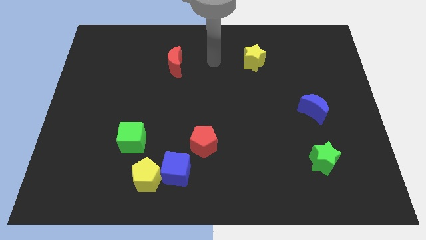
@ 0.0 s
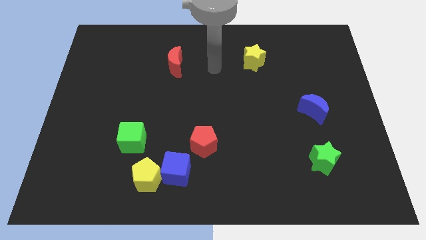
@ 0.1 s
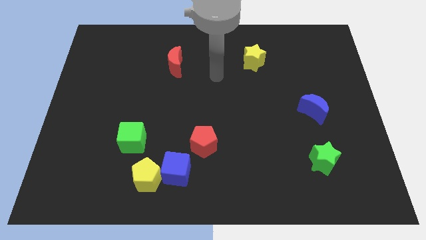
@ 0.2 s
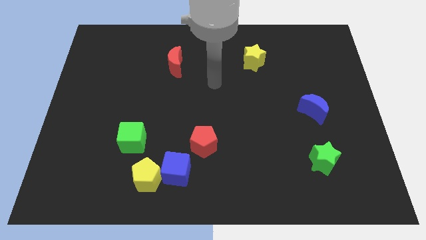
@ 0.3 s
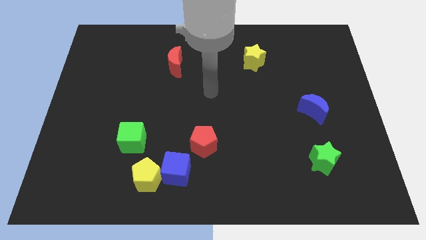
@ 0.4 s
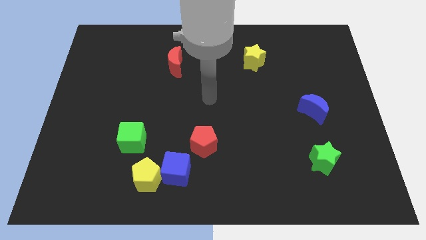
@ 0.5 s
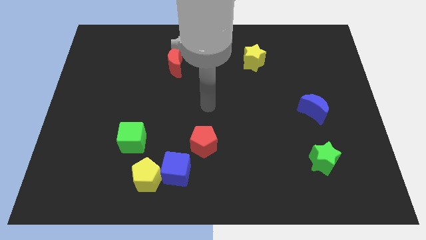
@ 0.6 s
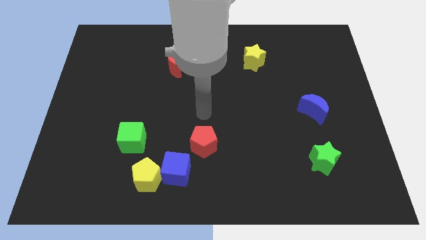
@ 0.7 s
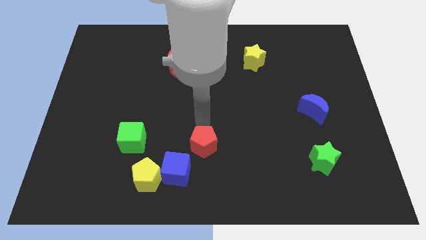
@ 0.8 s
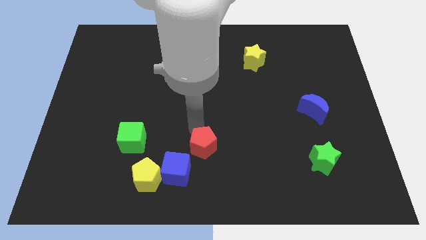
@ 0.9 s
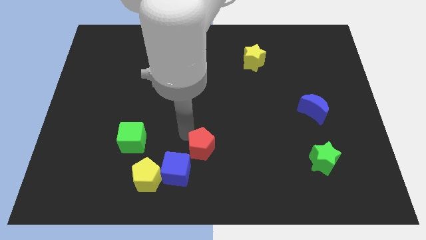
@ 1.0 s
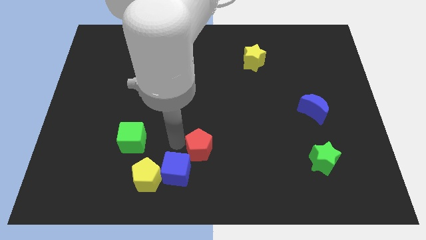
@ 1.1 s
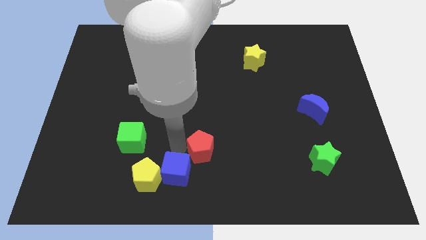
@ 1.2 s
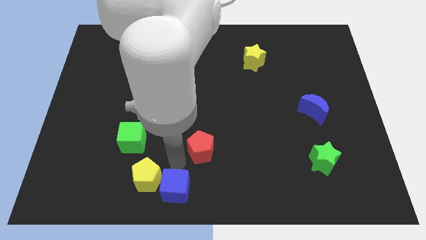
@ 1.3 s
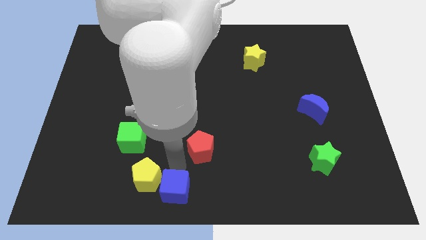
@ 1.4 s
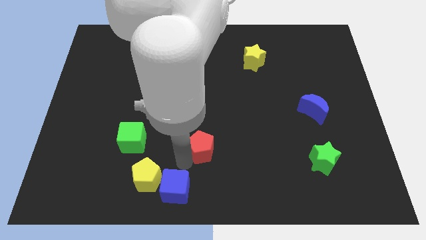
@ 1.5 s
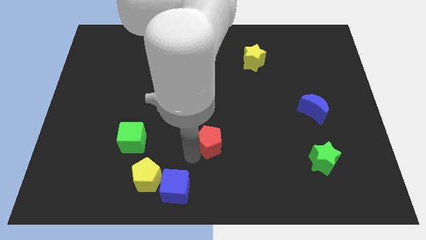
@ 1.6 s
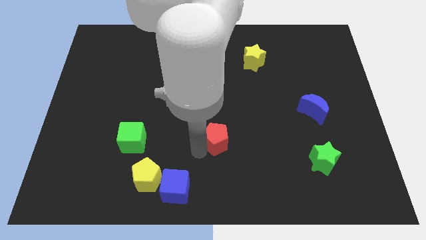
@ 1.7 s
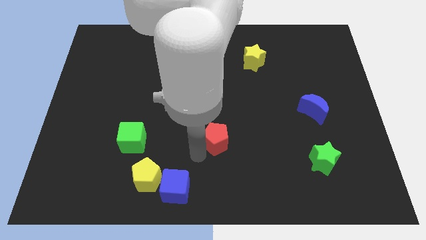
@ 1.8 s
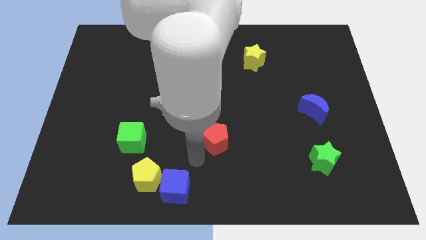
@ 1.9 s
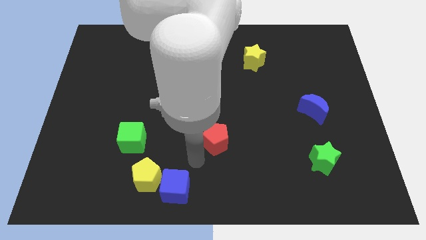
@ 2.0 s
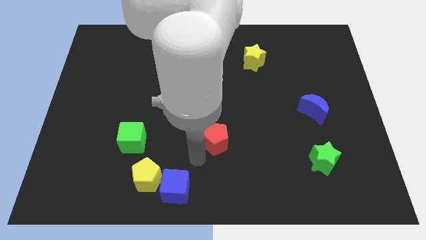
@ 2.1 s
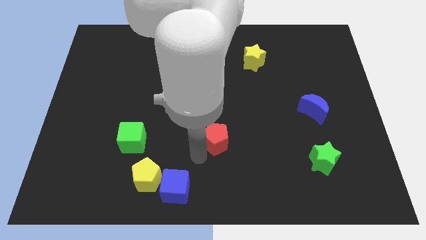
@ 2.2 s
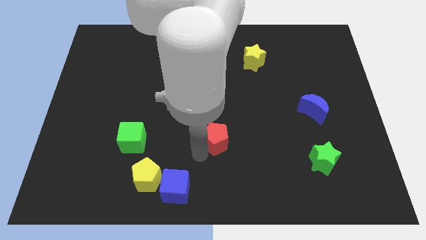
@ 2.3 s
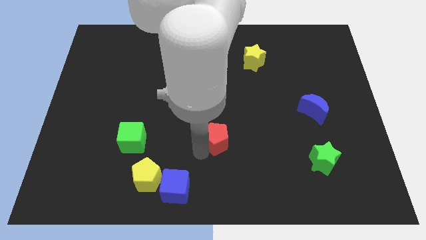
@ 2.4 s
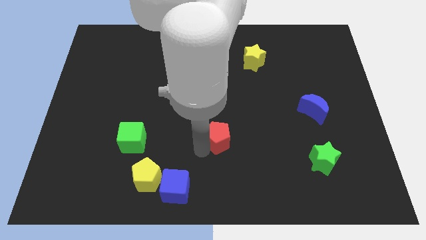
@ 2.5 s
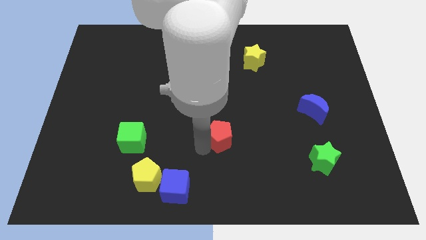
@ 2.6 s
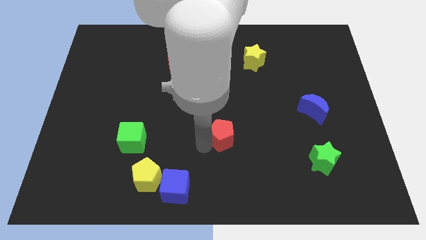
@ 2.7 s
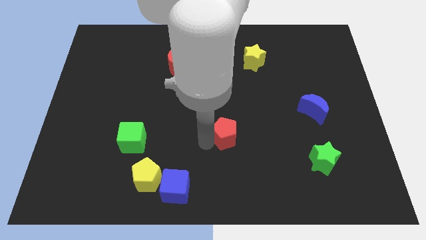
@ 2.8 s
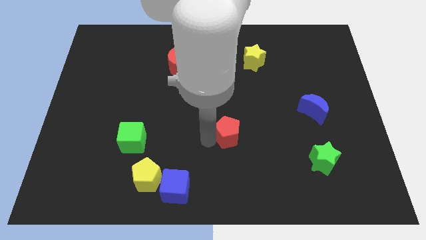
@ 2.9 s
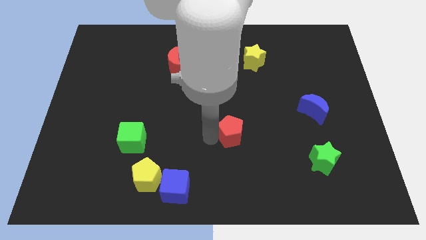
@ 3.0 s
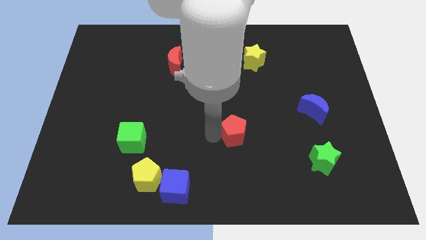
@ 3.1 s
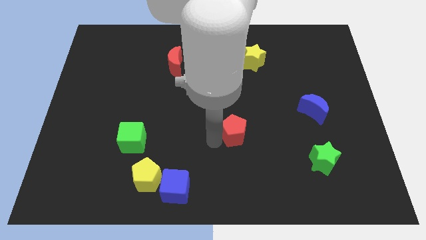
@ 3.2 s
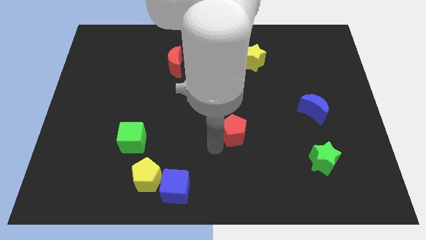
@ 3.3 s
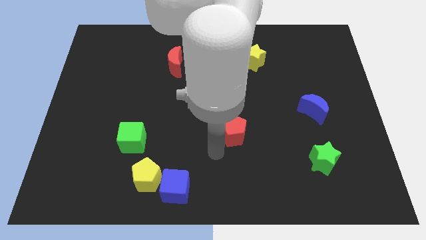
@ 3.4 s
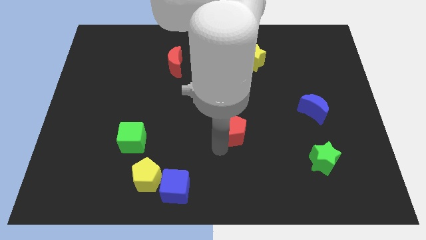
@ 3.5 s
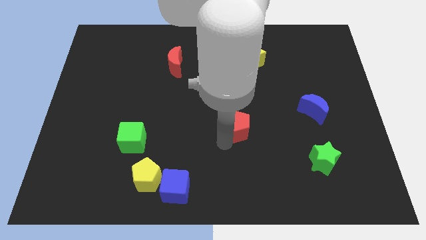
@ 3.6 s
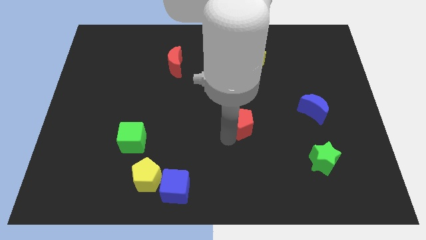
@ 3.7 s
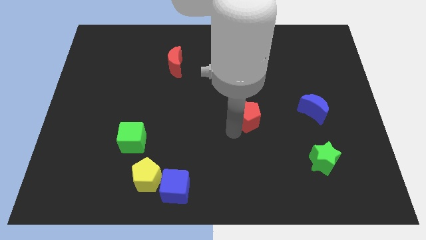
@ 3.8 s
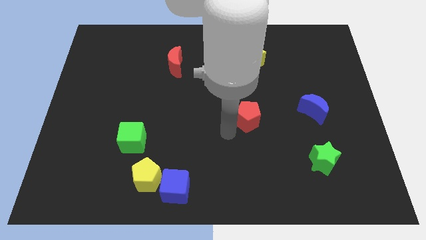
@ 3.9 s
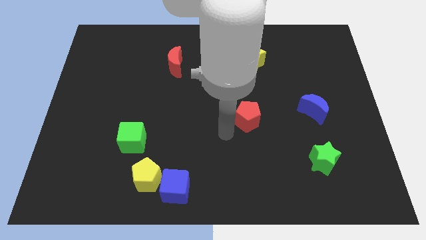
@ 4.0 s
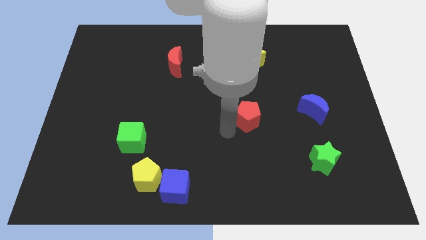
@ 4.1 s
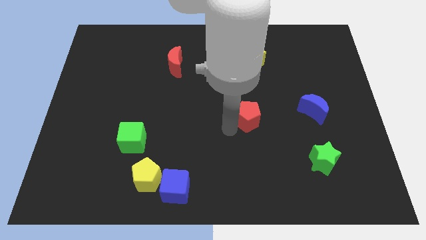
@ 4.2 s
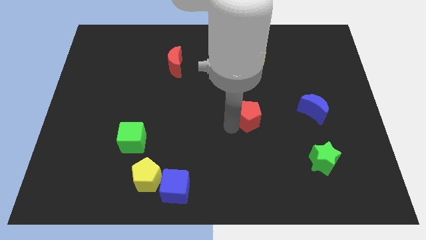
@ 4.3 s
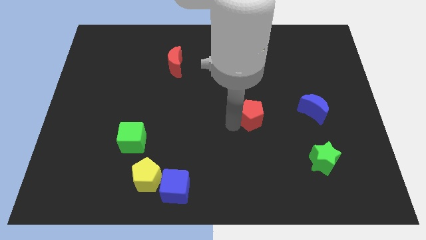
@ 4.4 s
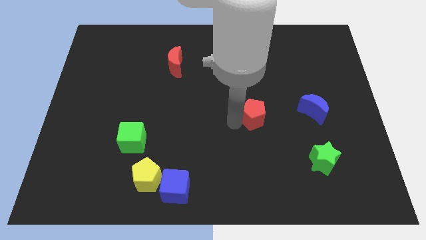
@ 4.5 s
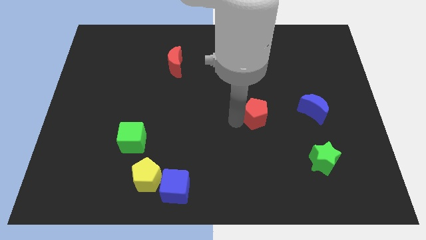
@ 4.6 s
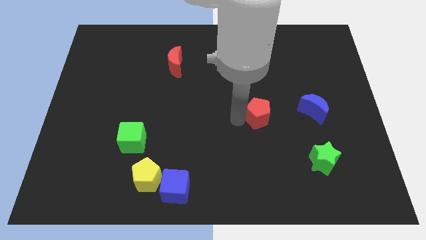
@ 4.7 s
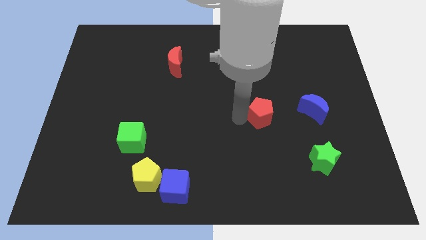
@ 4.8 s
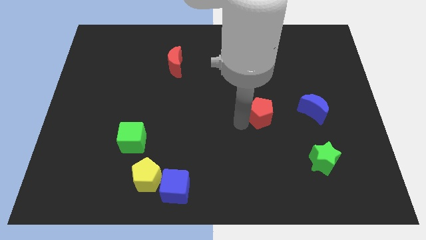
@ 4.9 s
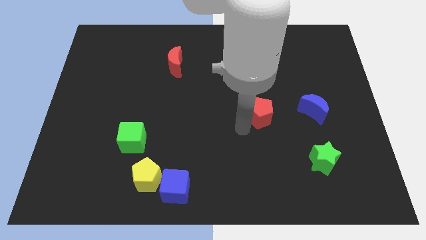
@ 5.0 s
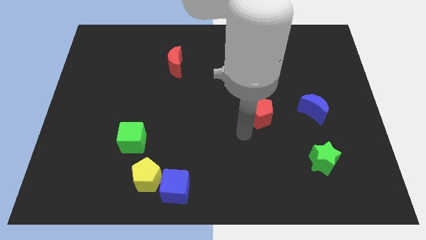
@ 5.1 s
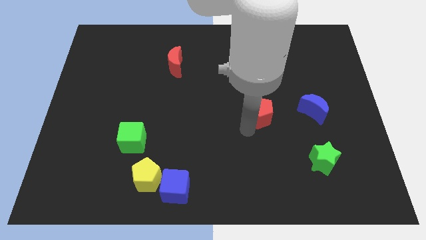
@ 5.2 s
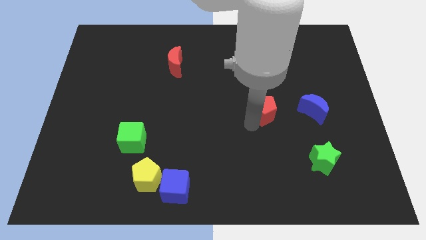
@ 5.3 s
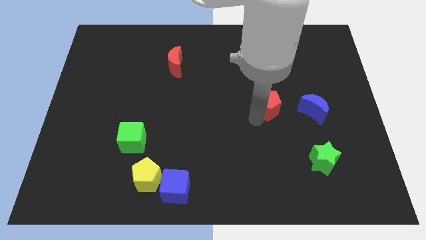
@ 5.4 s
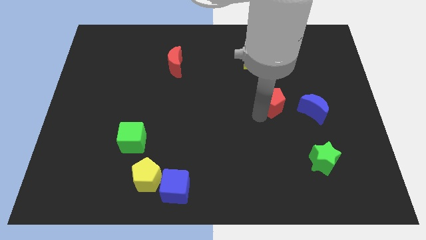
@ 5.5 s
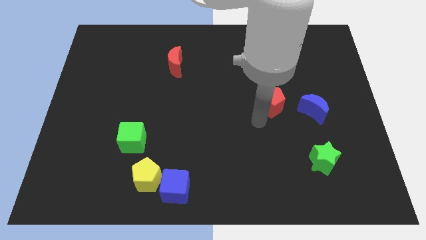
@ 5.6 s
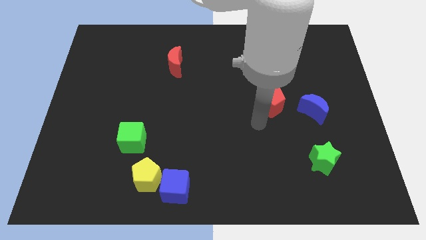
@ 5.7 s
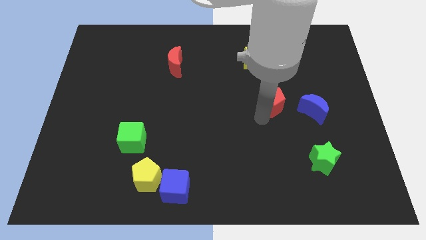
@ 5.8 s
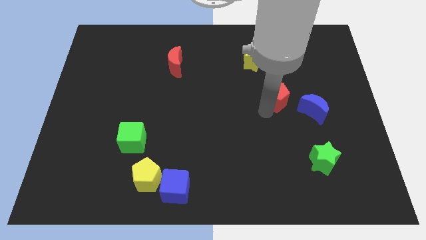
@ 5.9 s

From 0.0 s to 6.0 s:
slide the red pentagon diagonally up and to the right

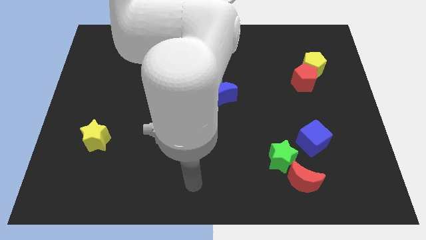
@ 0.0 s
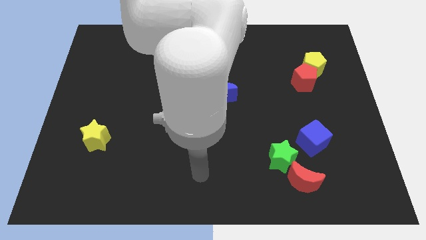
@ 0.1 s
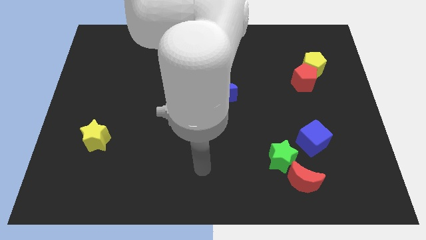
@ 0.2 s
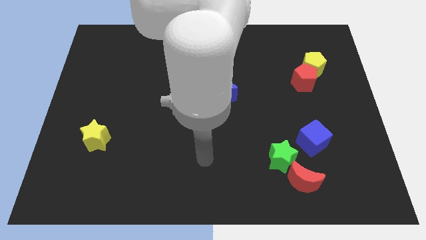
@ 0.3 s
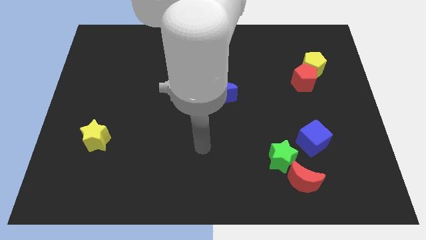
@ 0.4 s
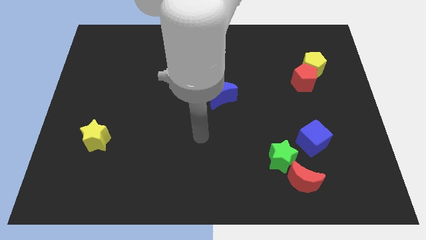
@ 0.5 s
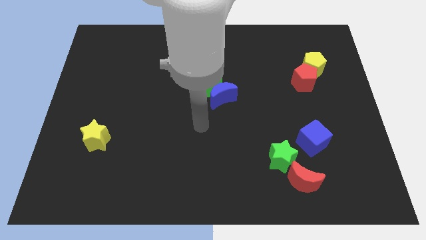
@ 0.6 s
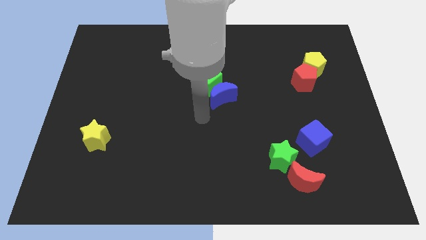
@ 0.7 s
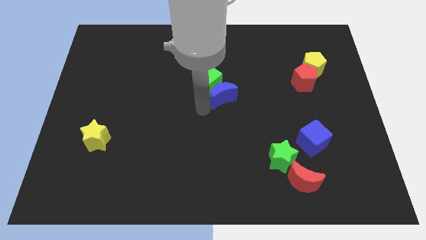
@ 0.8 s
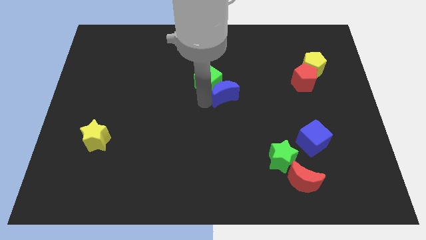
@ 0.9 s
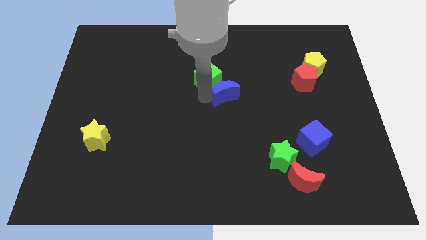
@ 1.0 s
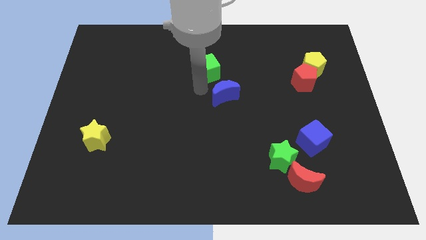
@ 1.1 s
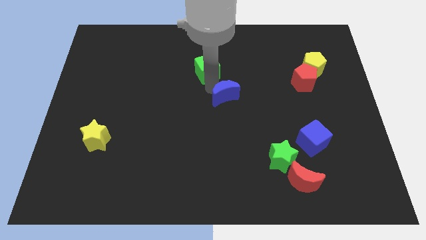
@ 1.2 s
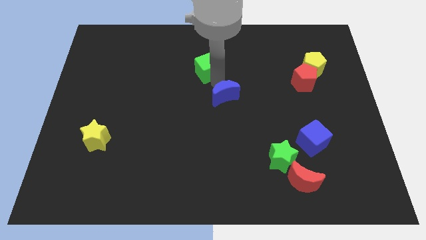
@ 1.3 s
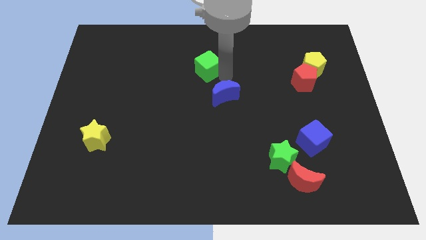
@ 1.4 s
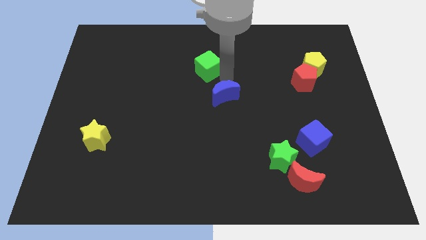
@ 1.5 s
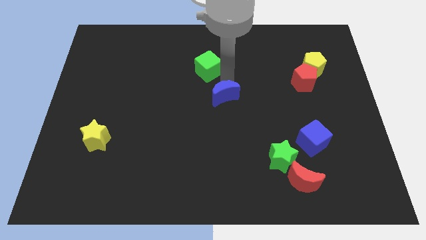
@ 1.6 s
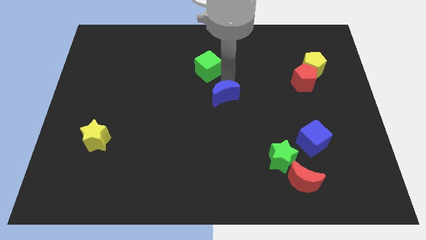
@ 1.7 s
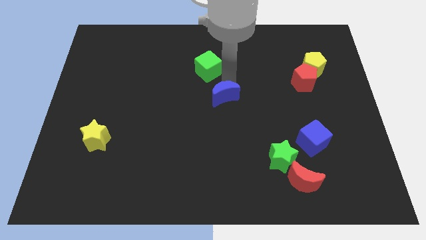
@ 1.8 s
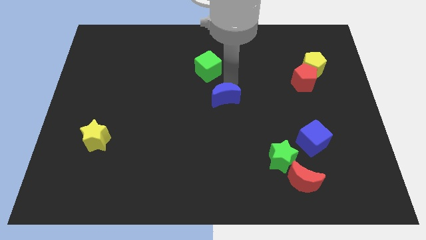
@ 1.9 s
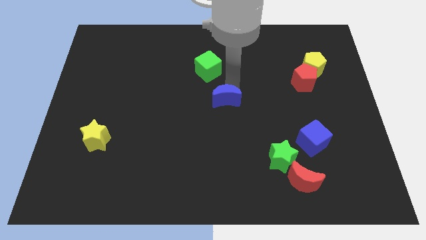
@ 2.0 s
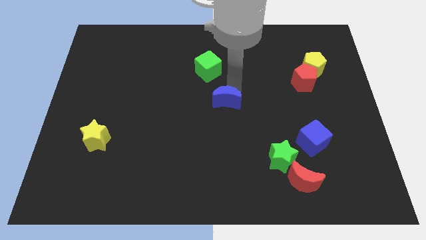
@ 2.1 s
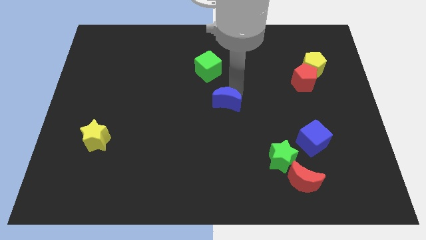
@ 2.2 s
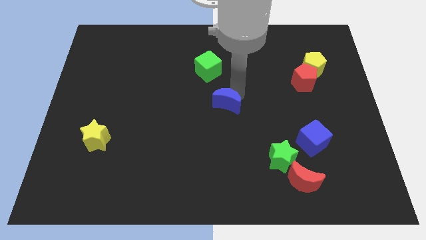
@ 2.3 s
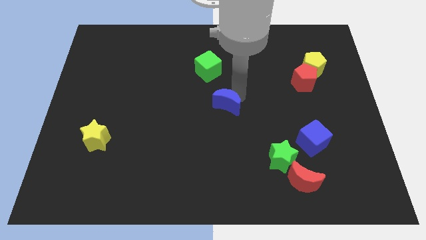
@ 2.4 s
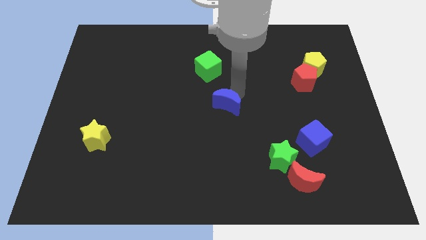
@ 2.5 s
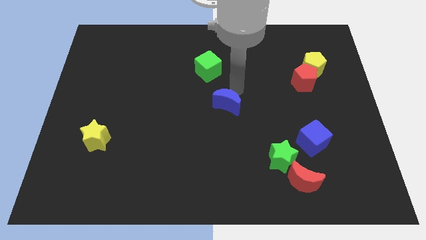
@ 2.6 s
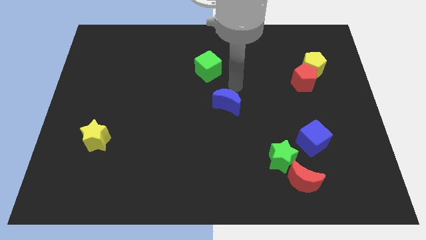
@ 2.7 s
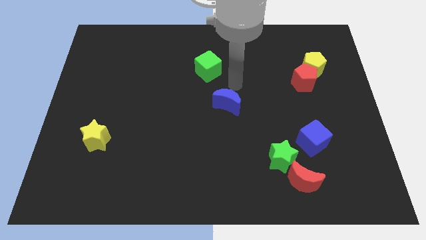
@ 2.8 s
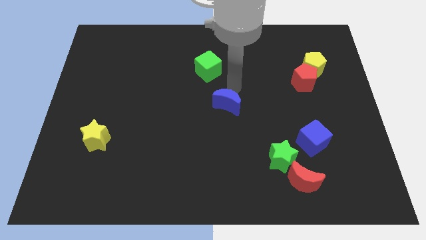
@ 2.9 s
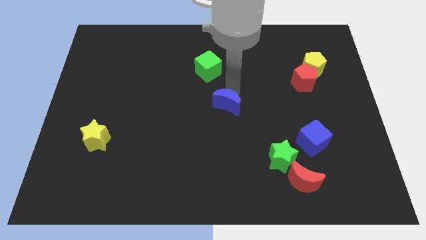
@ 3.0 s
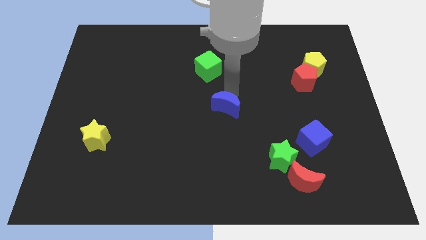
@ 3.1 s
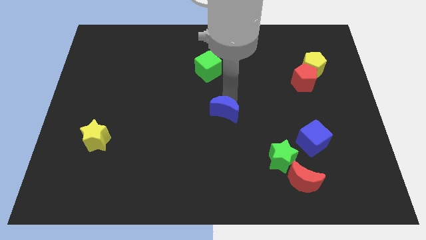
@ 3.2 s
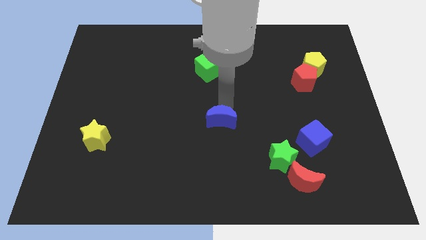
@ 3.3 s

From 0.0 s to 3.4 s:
slightly move the blue moon downwards
